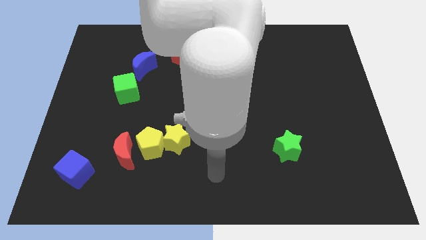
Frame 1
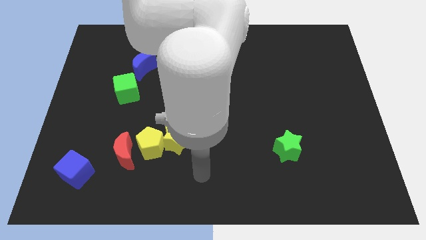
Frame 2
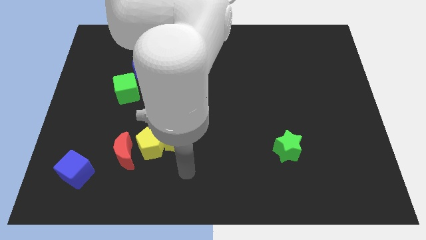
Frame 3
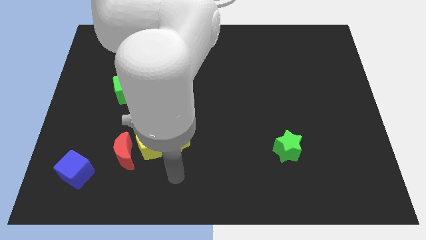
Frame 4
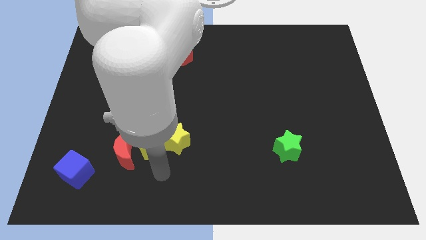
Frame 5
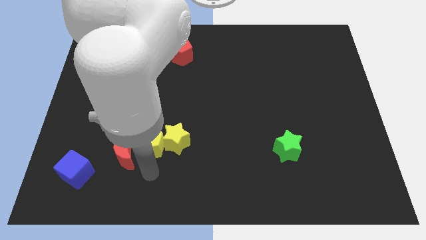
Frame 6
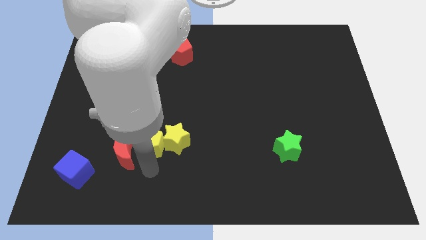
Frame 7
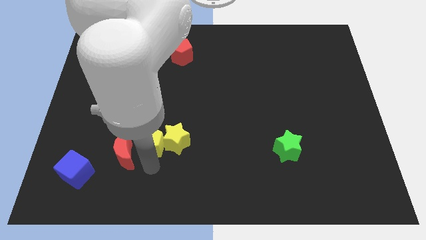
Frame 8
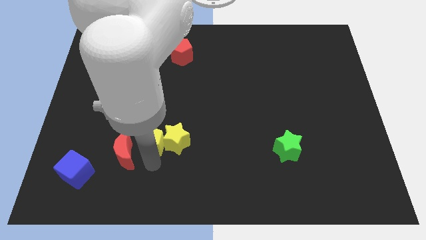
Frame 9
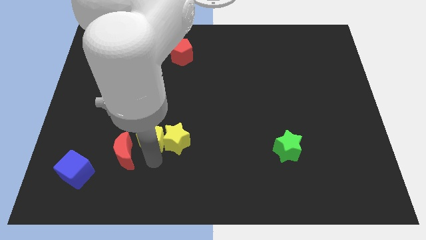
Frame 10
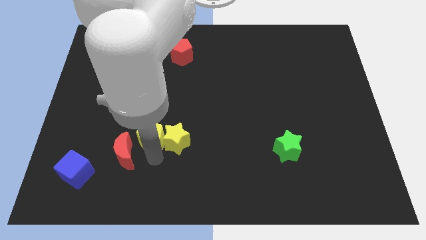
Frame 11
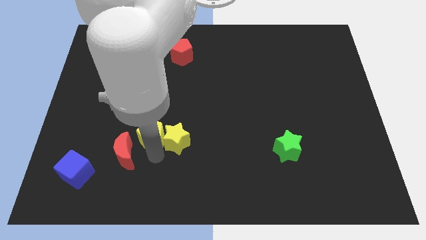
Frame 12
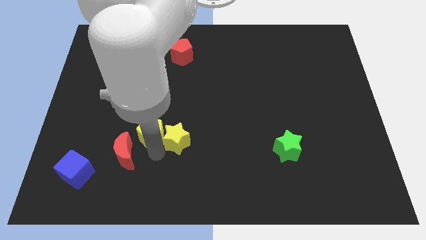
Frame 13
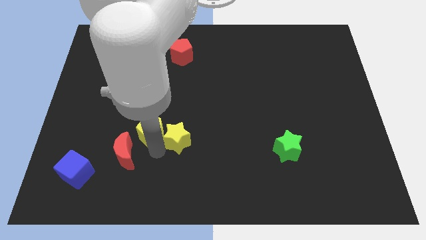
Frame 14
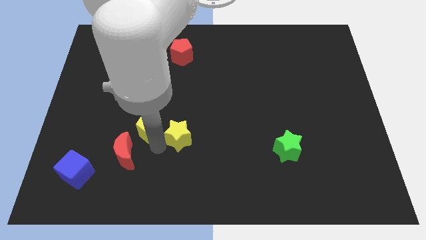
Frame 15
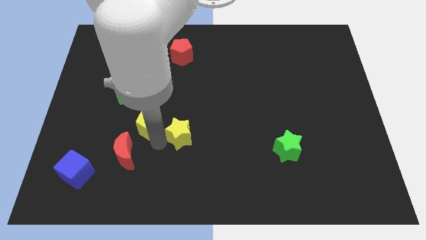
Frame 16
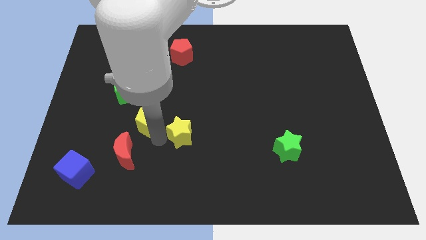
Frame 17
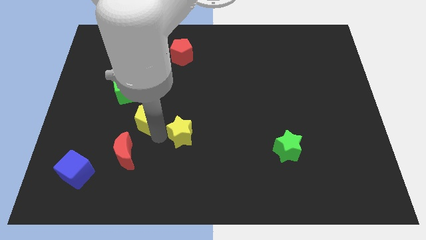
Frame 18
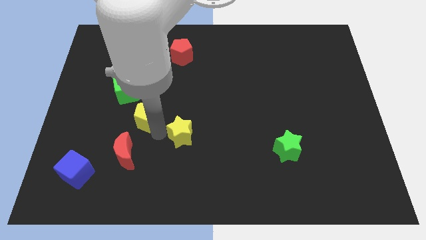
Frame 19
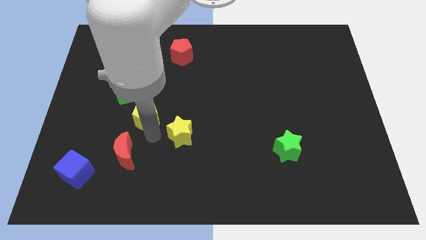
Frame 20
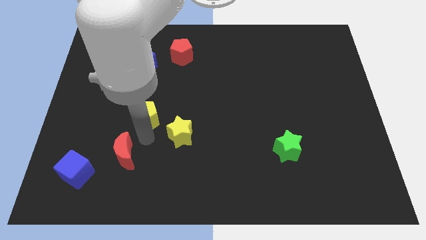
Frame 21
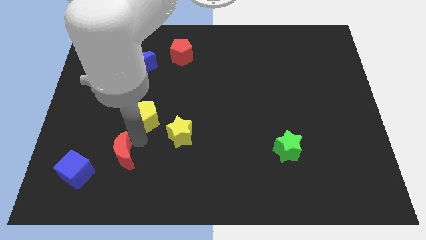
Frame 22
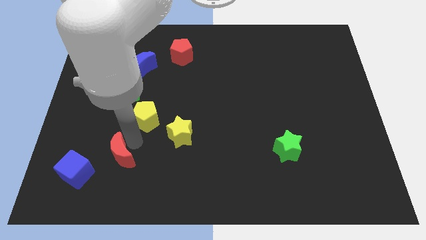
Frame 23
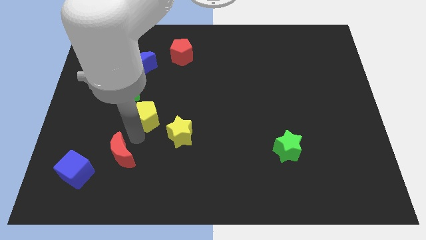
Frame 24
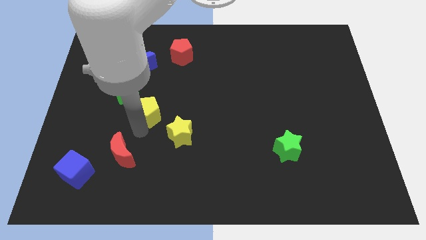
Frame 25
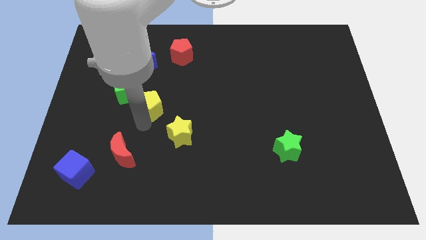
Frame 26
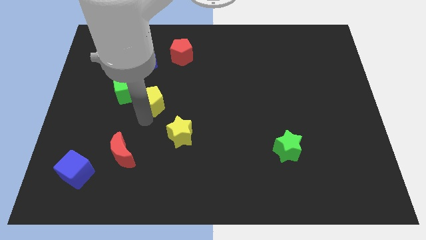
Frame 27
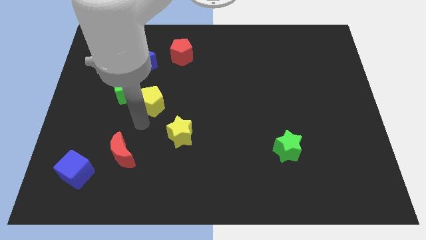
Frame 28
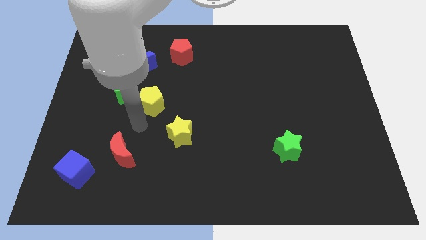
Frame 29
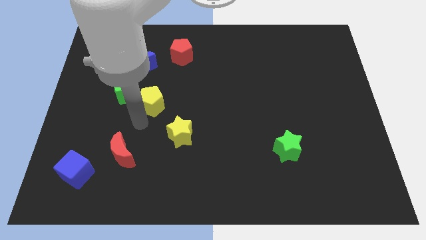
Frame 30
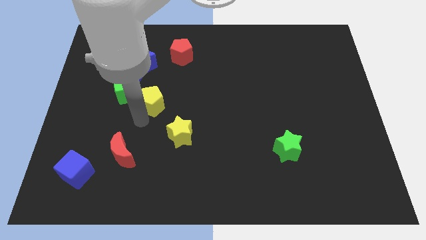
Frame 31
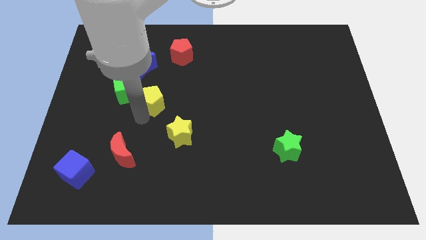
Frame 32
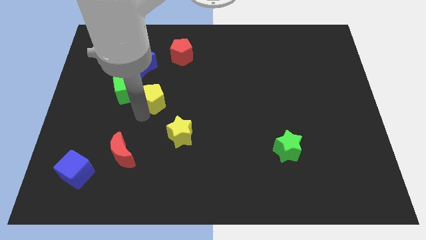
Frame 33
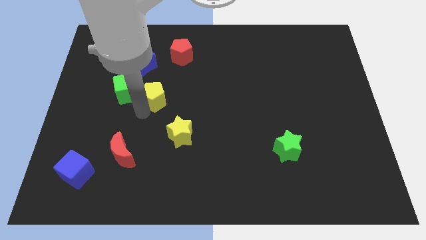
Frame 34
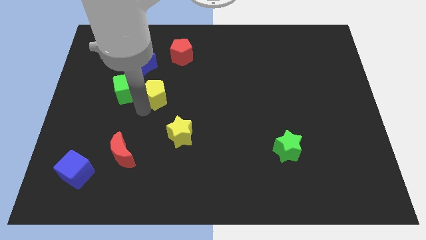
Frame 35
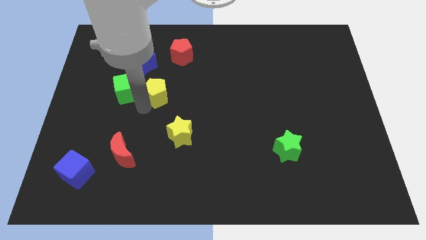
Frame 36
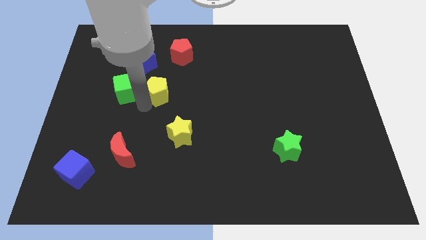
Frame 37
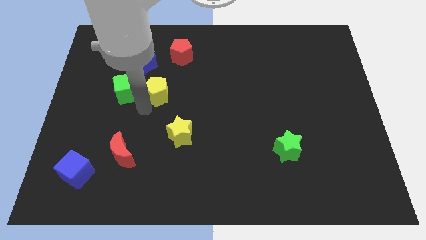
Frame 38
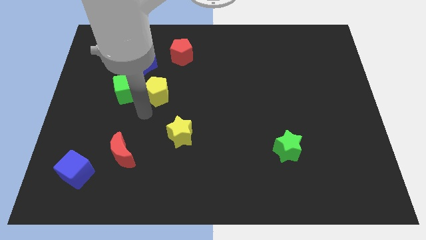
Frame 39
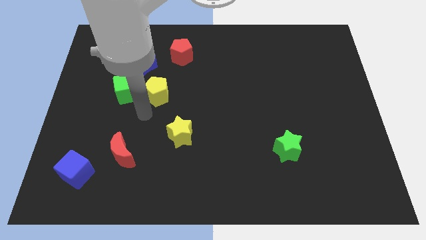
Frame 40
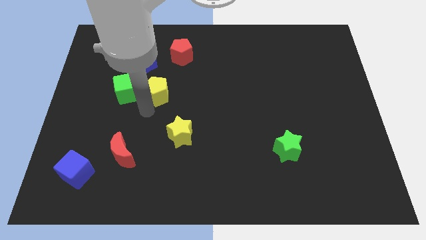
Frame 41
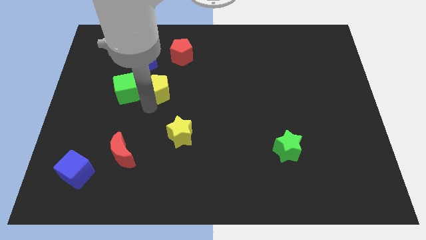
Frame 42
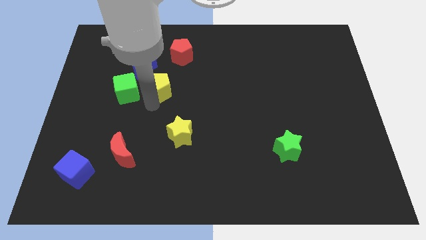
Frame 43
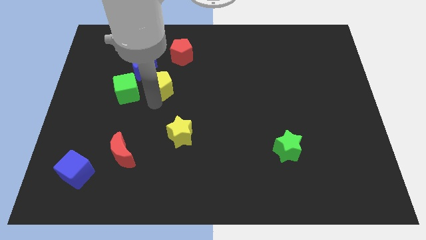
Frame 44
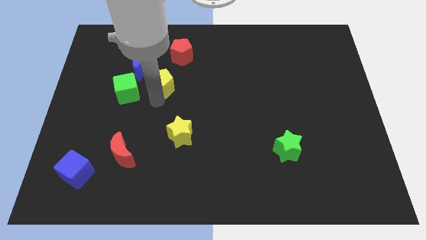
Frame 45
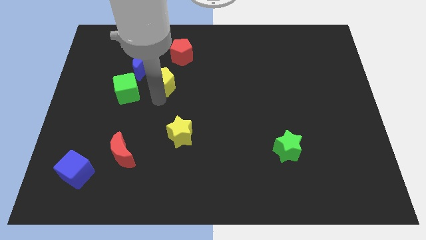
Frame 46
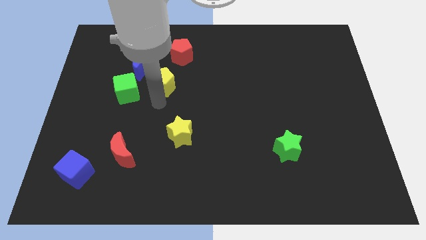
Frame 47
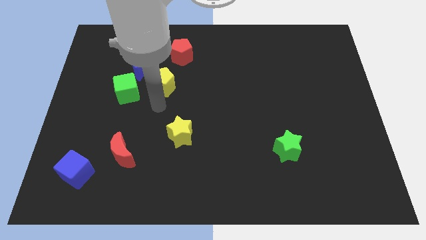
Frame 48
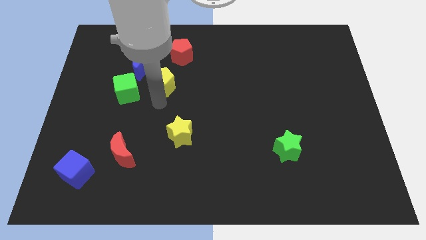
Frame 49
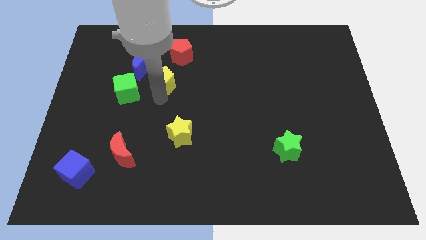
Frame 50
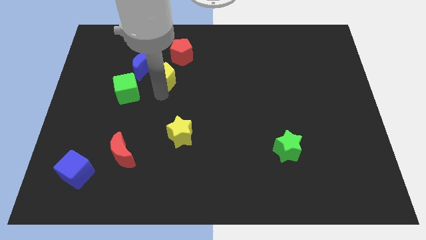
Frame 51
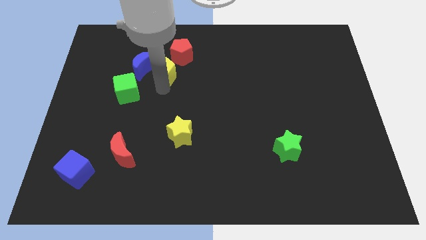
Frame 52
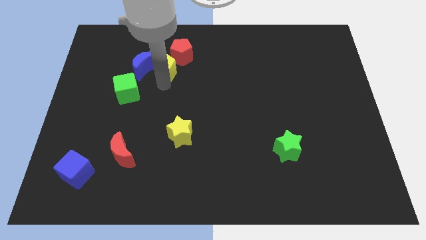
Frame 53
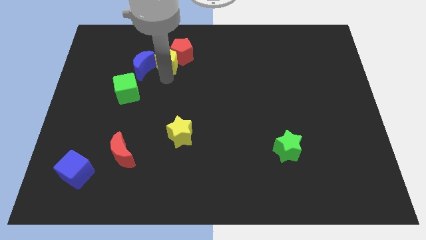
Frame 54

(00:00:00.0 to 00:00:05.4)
push the yellow pentagon to the left side of the red pentagon

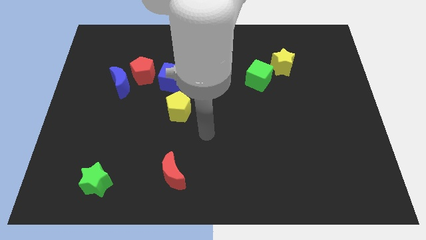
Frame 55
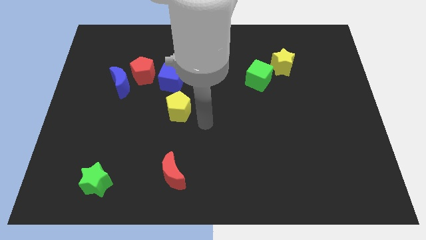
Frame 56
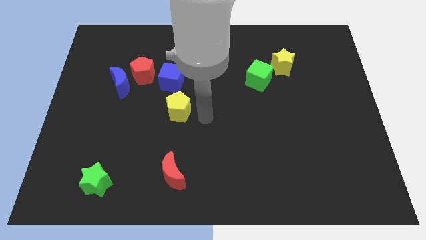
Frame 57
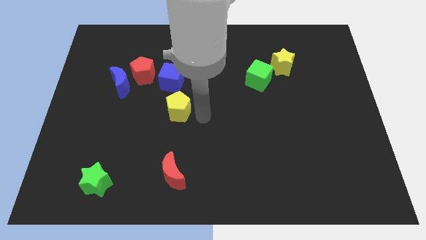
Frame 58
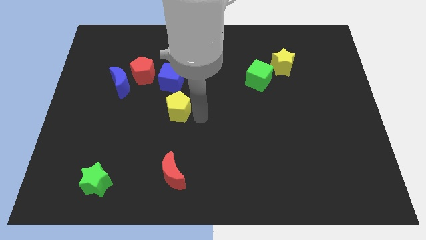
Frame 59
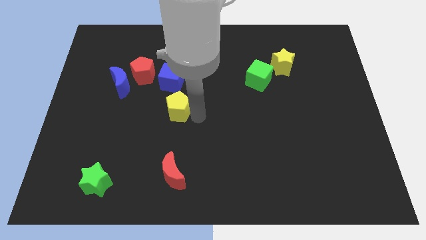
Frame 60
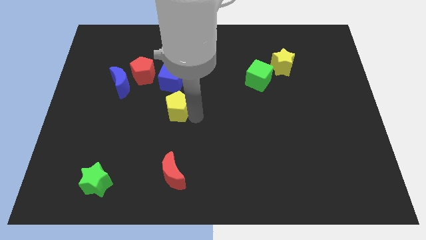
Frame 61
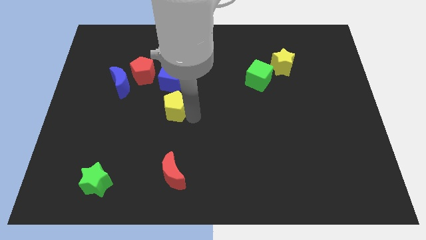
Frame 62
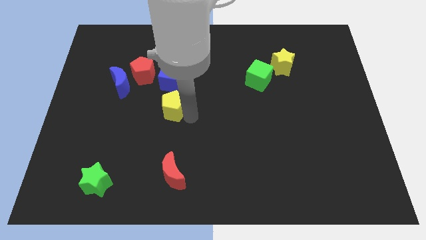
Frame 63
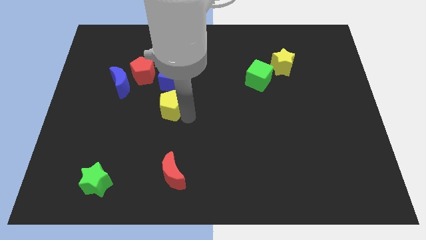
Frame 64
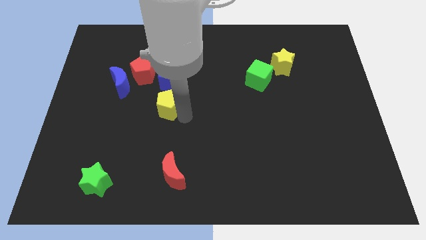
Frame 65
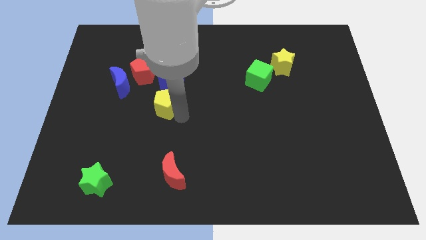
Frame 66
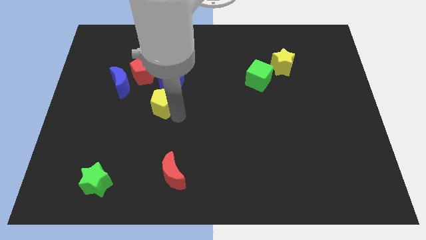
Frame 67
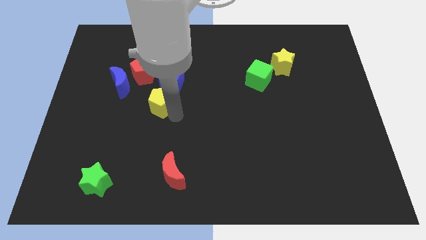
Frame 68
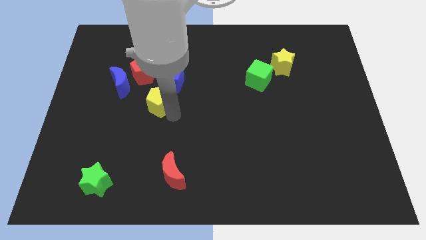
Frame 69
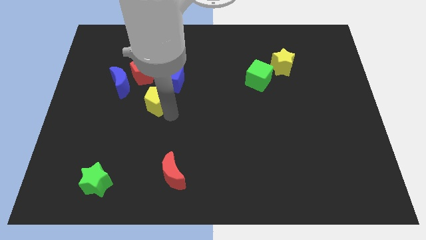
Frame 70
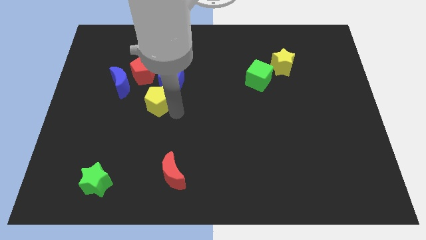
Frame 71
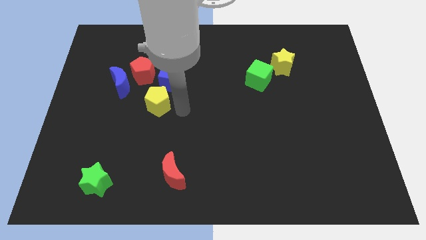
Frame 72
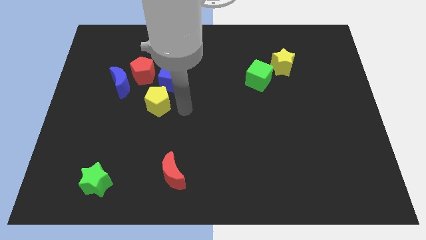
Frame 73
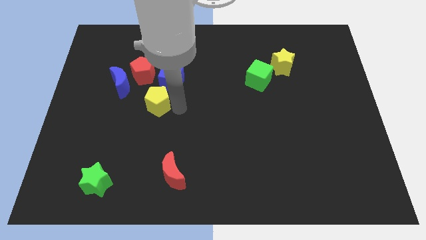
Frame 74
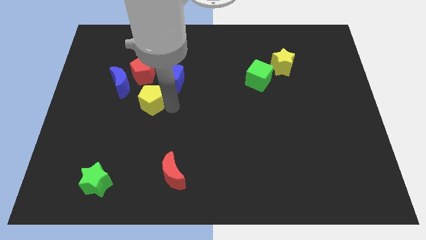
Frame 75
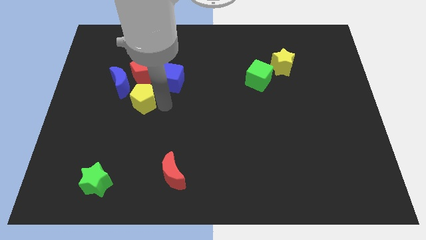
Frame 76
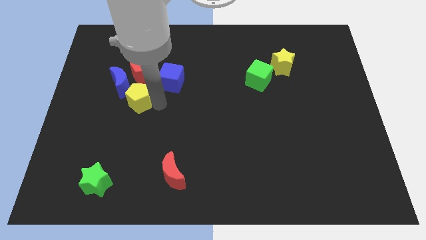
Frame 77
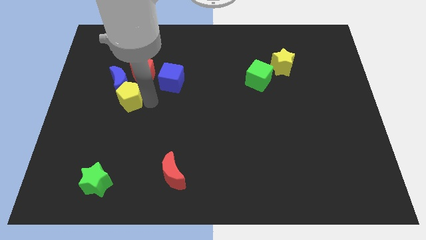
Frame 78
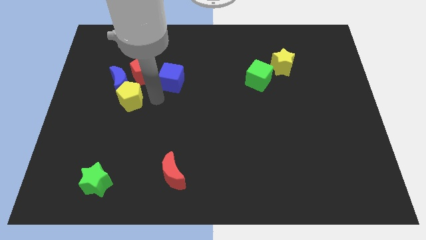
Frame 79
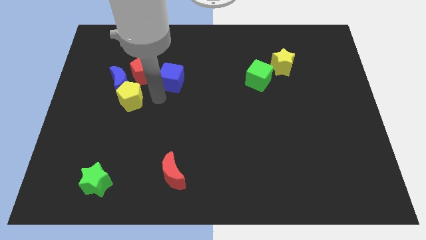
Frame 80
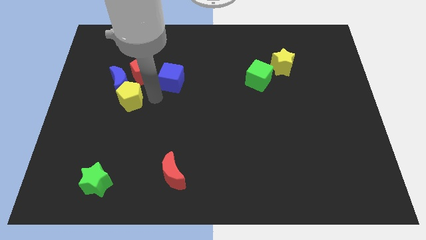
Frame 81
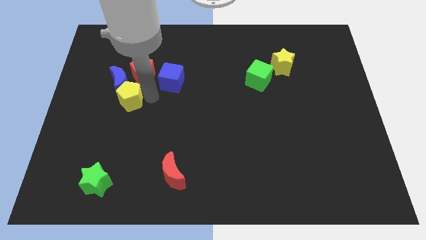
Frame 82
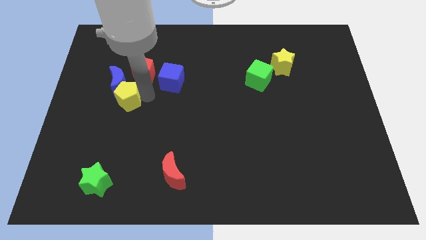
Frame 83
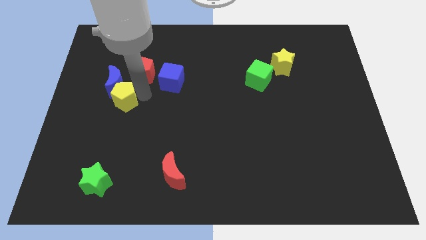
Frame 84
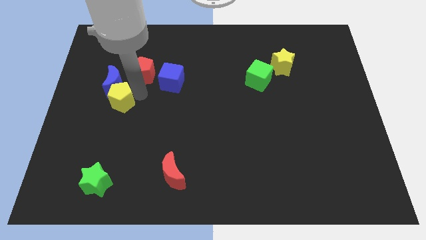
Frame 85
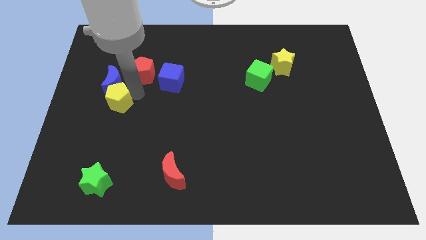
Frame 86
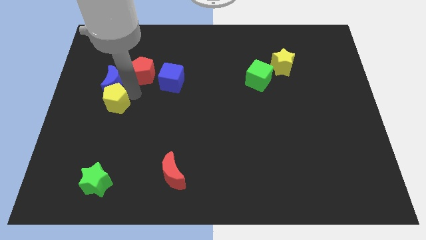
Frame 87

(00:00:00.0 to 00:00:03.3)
slide the yellow pentagon diagonally down and to the left of the blue moon
